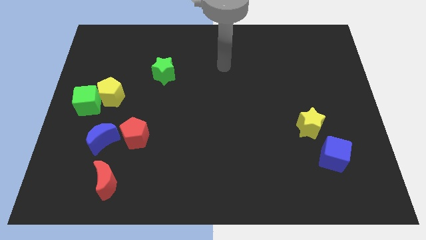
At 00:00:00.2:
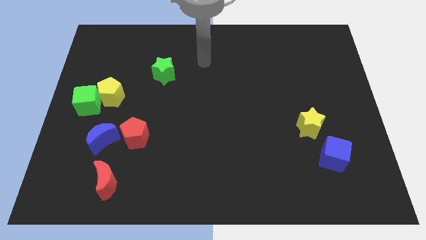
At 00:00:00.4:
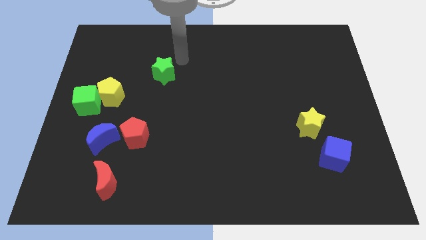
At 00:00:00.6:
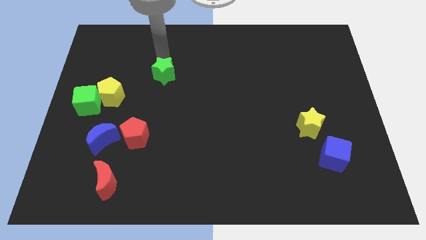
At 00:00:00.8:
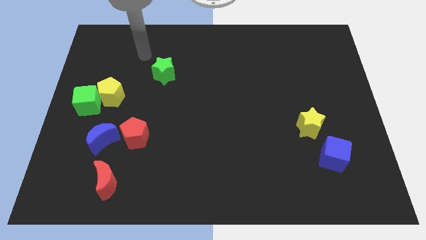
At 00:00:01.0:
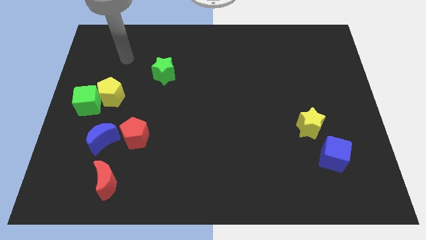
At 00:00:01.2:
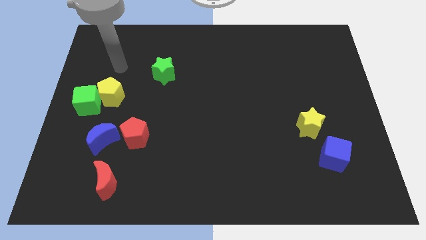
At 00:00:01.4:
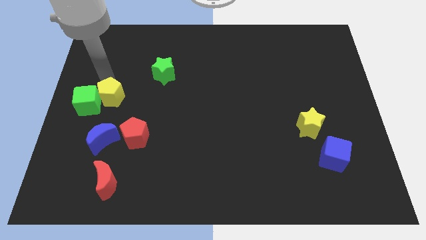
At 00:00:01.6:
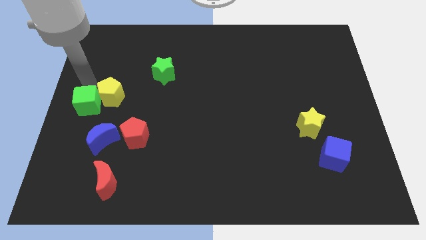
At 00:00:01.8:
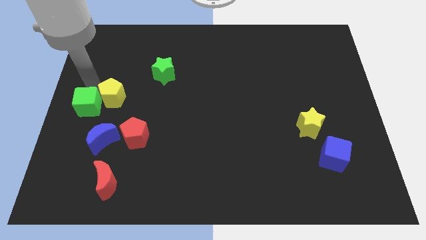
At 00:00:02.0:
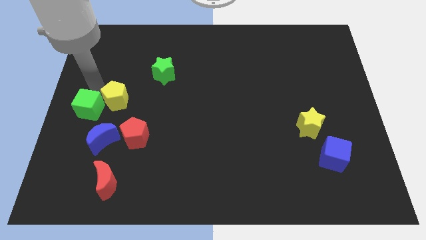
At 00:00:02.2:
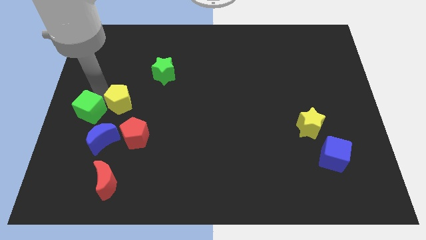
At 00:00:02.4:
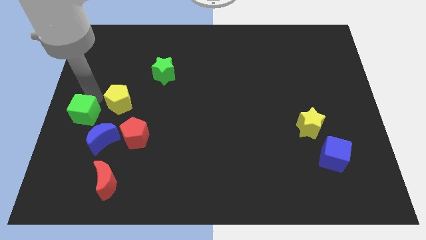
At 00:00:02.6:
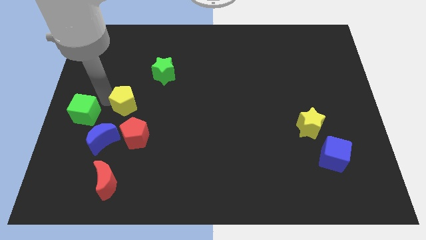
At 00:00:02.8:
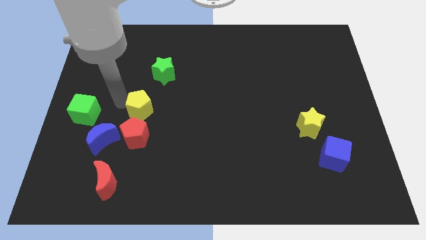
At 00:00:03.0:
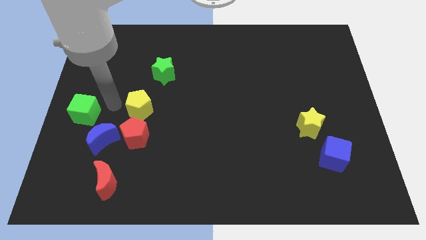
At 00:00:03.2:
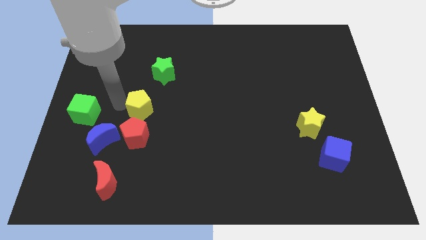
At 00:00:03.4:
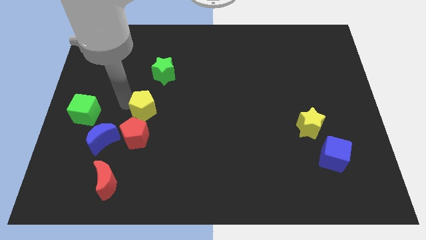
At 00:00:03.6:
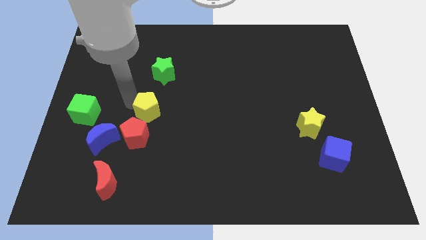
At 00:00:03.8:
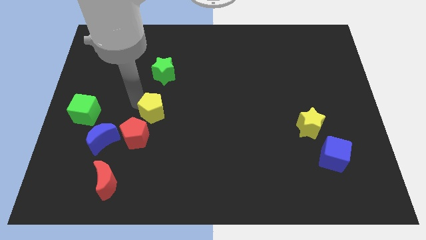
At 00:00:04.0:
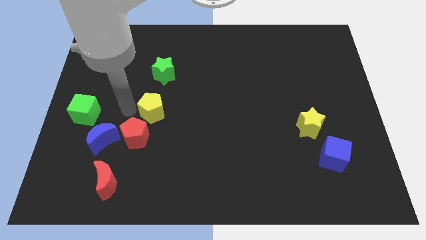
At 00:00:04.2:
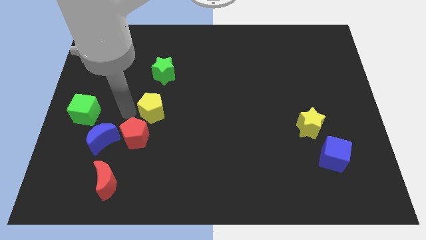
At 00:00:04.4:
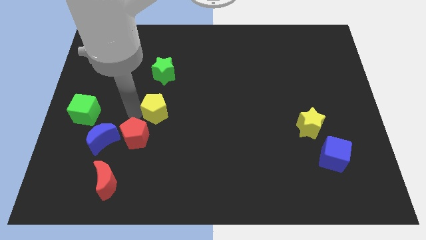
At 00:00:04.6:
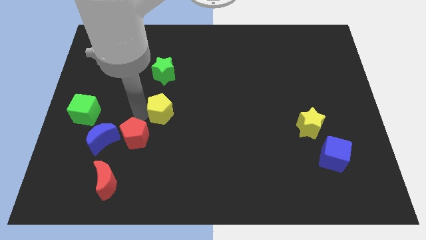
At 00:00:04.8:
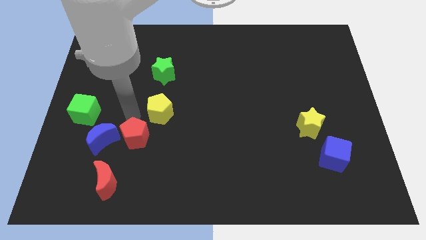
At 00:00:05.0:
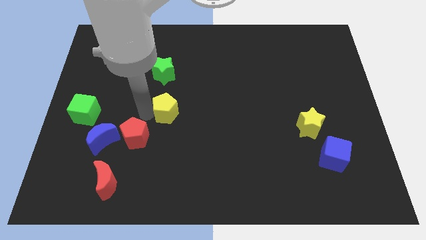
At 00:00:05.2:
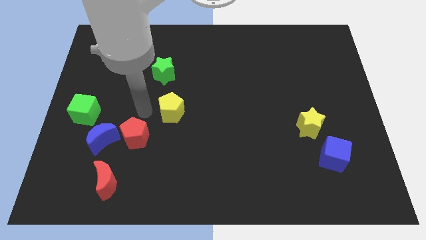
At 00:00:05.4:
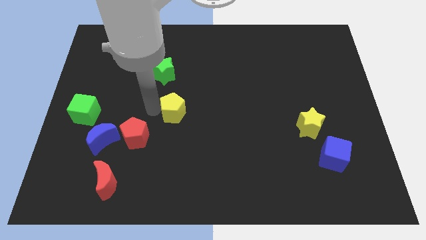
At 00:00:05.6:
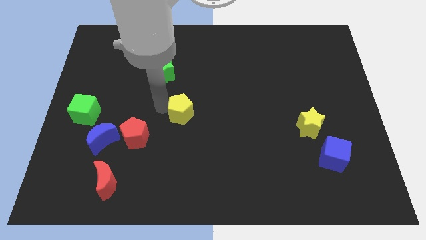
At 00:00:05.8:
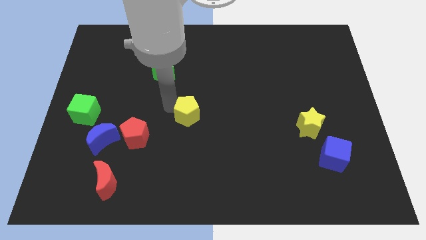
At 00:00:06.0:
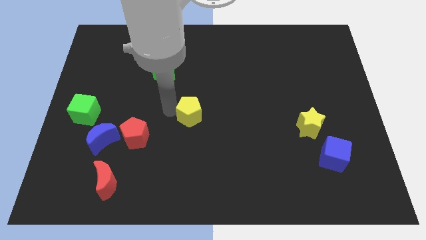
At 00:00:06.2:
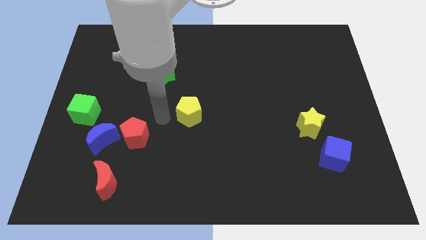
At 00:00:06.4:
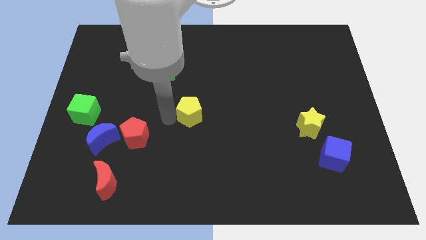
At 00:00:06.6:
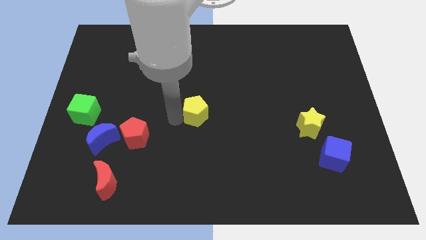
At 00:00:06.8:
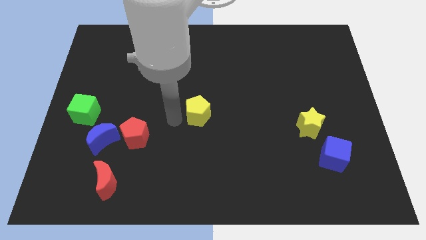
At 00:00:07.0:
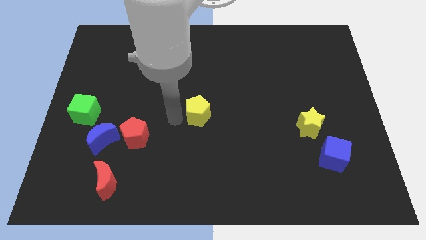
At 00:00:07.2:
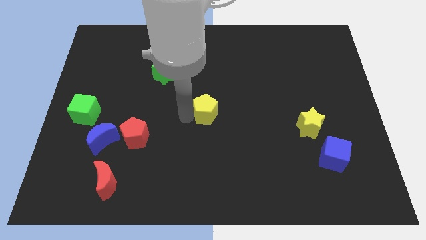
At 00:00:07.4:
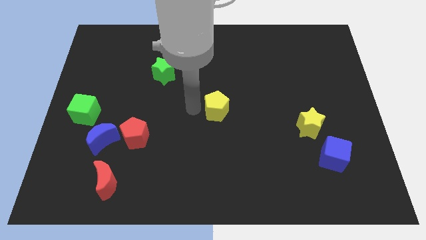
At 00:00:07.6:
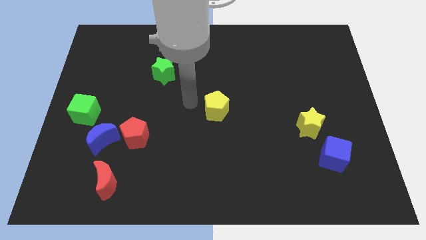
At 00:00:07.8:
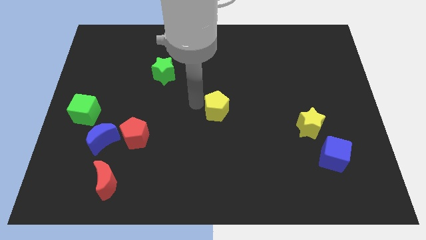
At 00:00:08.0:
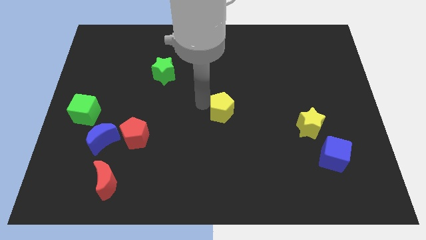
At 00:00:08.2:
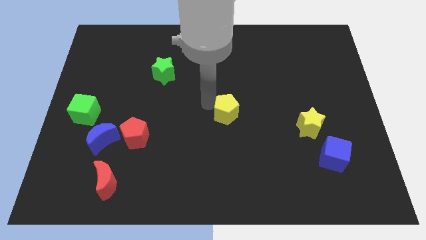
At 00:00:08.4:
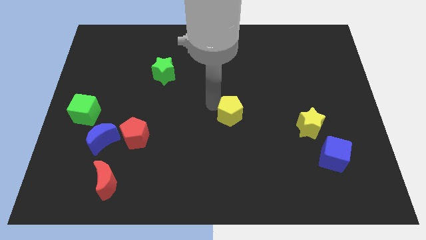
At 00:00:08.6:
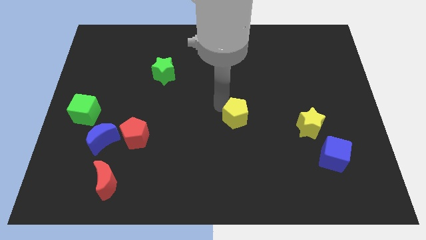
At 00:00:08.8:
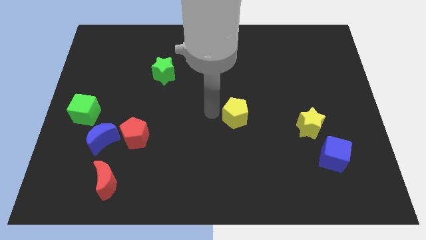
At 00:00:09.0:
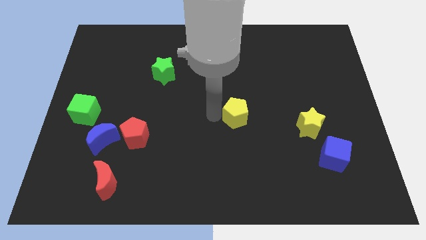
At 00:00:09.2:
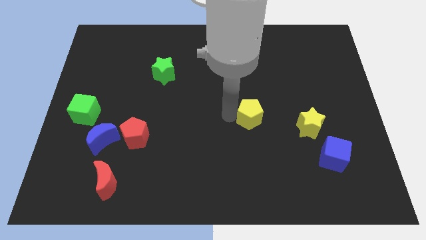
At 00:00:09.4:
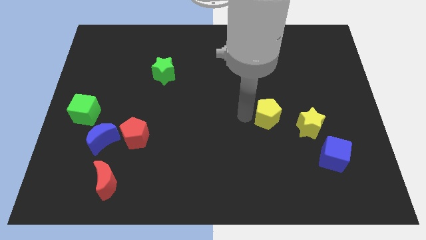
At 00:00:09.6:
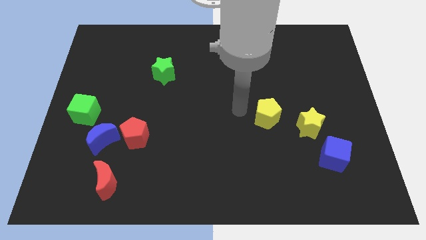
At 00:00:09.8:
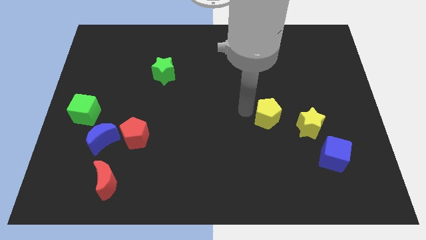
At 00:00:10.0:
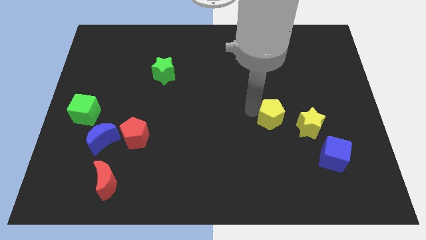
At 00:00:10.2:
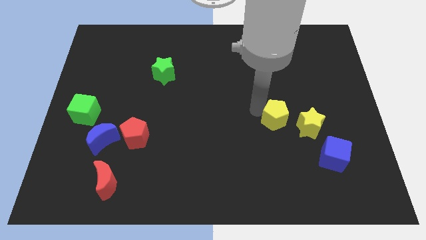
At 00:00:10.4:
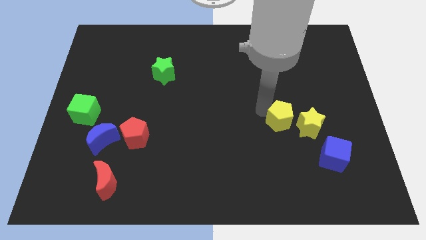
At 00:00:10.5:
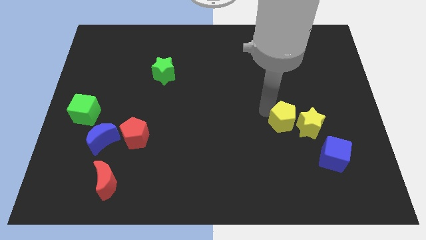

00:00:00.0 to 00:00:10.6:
put the yellow pentagon to the yellow star

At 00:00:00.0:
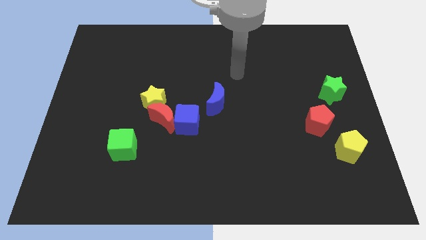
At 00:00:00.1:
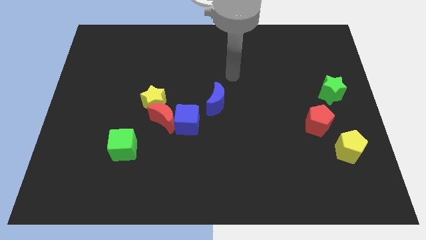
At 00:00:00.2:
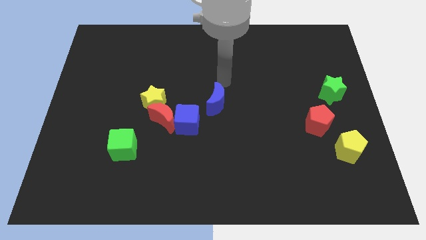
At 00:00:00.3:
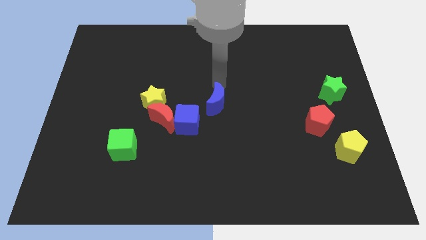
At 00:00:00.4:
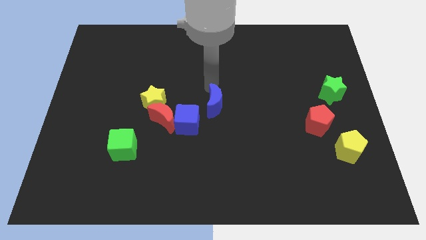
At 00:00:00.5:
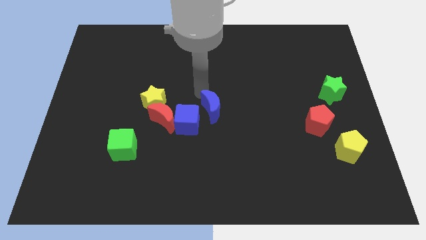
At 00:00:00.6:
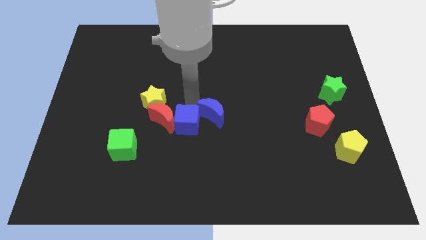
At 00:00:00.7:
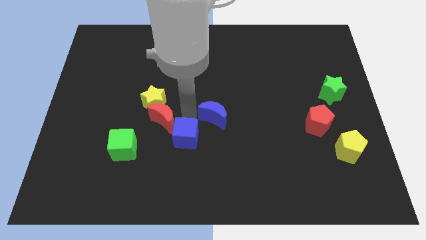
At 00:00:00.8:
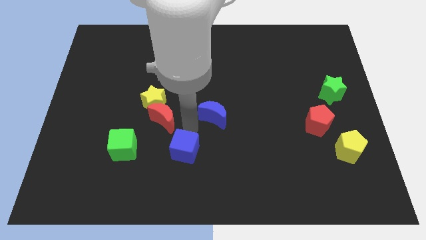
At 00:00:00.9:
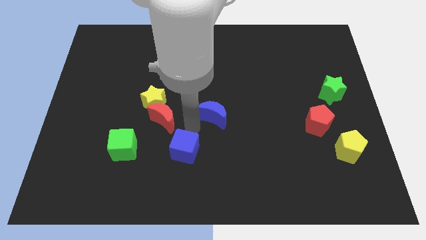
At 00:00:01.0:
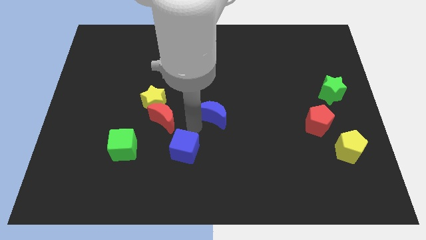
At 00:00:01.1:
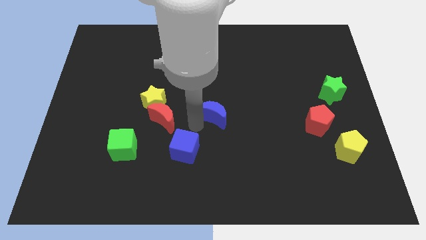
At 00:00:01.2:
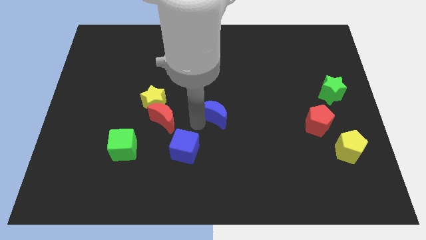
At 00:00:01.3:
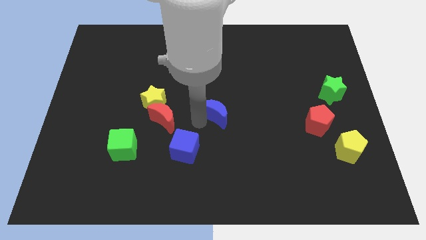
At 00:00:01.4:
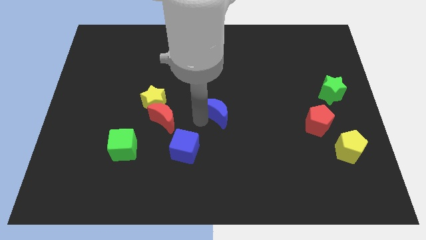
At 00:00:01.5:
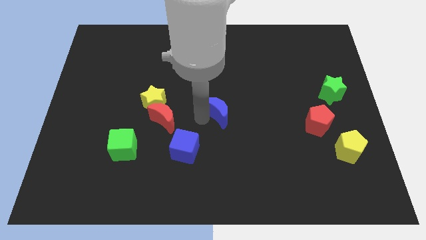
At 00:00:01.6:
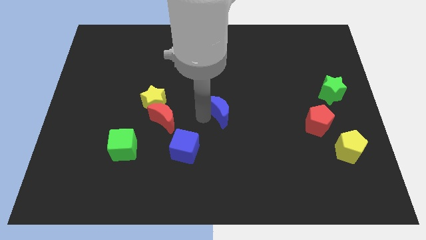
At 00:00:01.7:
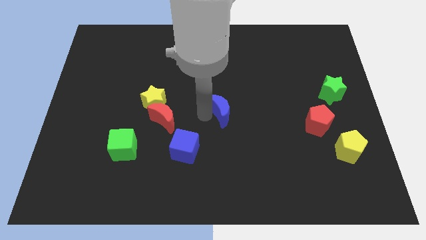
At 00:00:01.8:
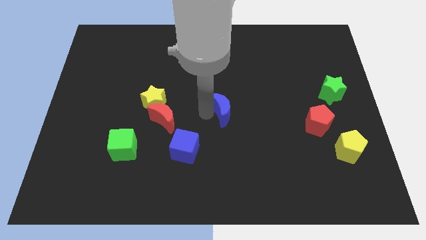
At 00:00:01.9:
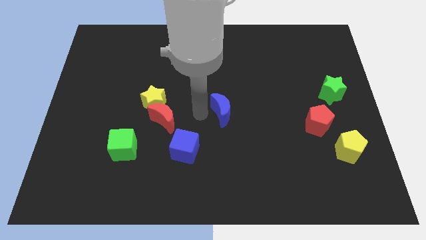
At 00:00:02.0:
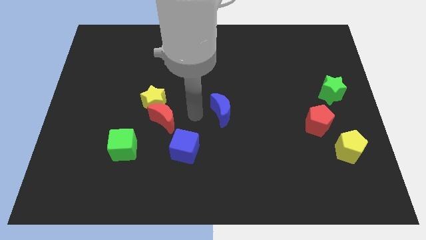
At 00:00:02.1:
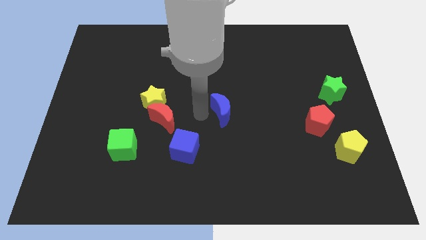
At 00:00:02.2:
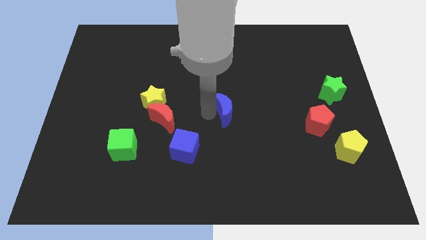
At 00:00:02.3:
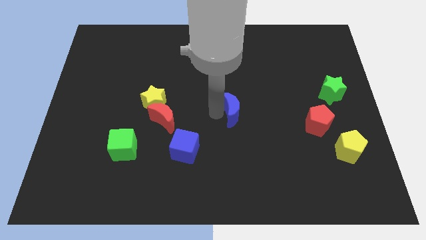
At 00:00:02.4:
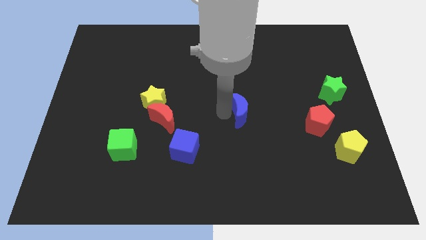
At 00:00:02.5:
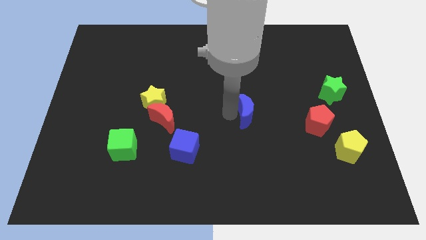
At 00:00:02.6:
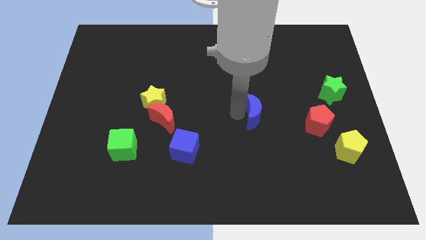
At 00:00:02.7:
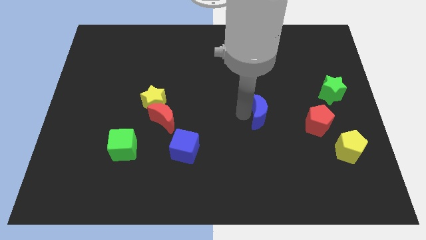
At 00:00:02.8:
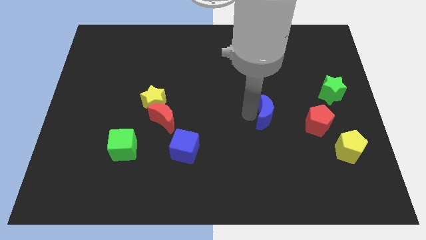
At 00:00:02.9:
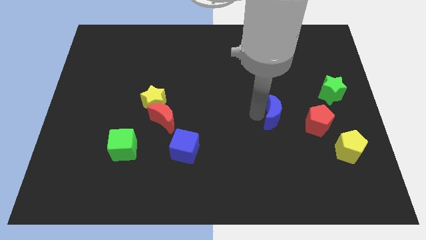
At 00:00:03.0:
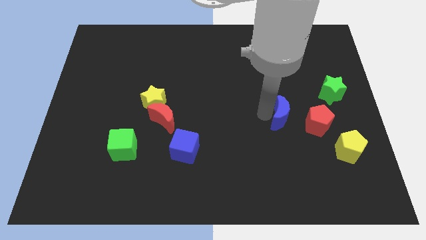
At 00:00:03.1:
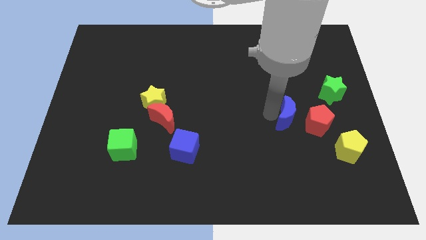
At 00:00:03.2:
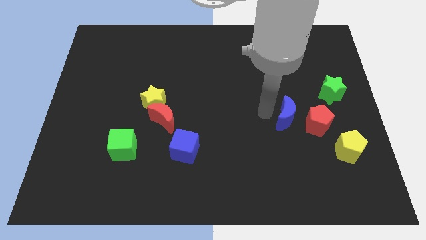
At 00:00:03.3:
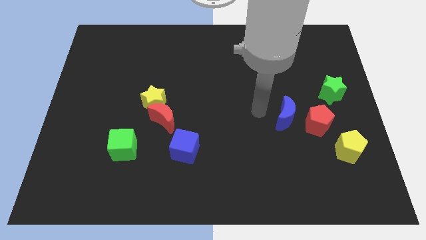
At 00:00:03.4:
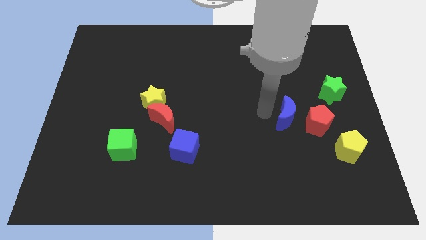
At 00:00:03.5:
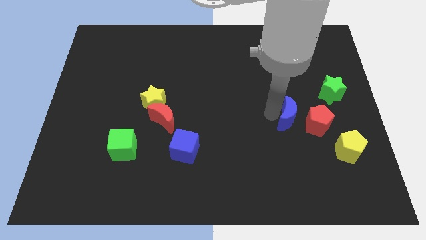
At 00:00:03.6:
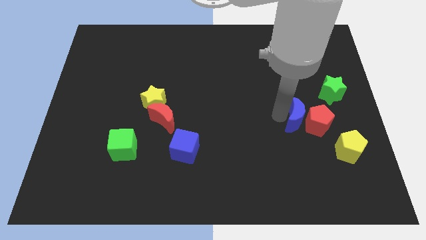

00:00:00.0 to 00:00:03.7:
move the blue moon towards the red pentagon
